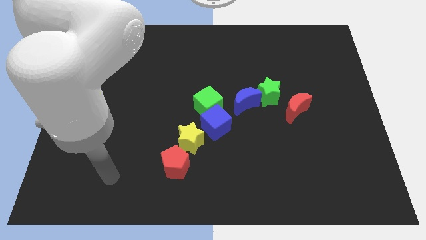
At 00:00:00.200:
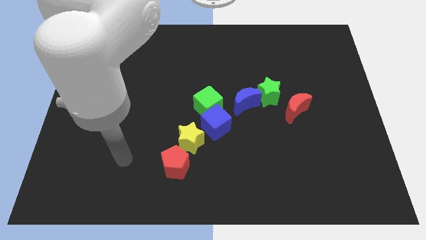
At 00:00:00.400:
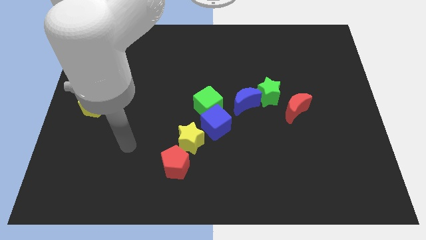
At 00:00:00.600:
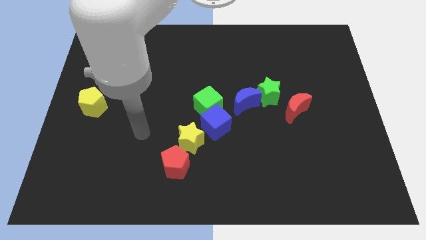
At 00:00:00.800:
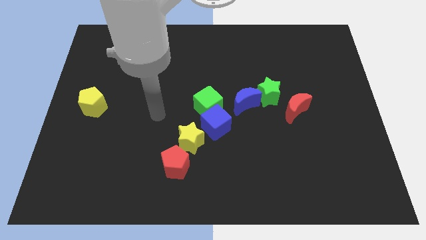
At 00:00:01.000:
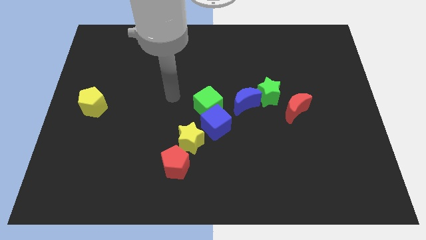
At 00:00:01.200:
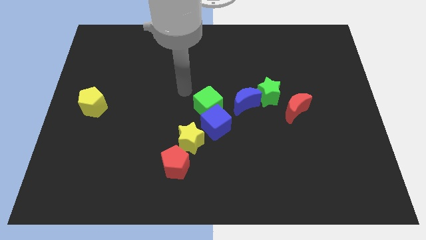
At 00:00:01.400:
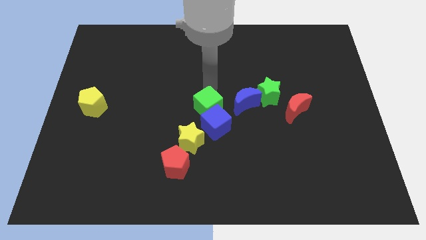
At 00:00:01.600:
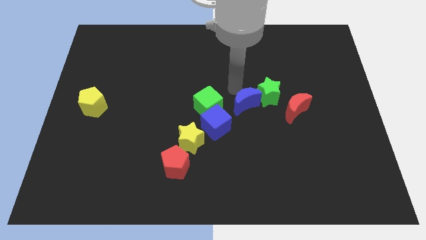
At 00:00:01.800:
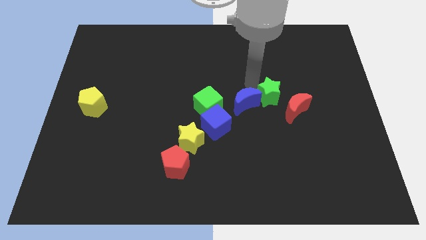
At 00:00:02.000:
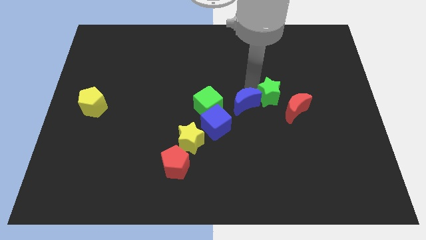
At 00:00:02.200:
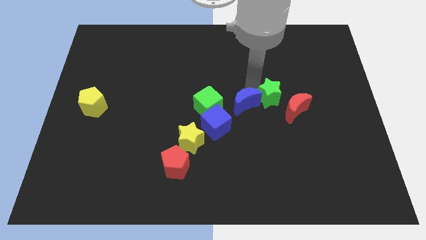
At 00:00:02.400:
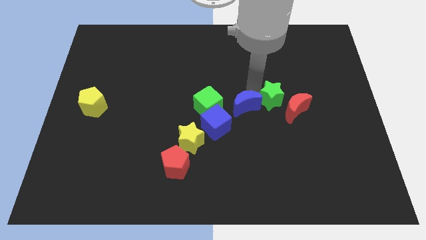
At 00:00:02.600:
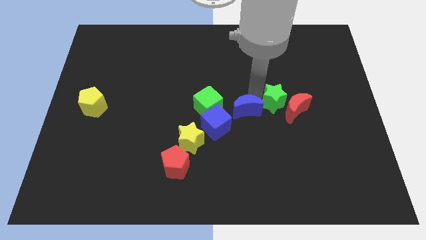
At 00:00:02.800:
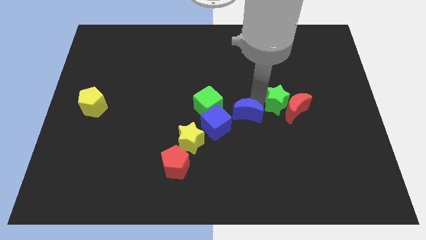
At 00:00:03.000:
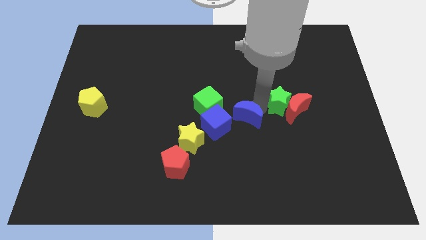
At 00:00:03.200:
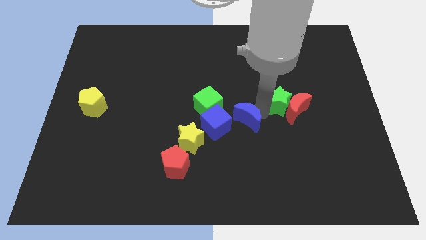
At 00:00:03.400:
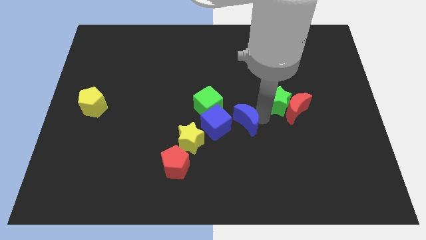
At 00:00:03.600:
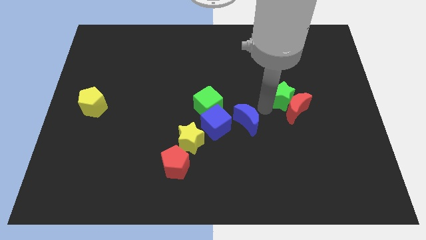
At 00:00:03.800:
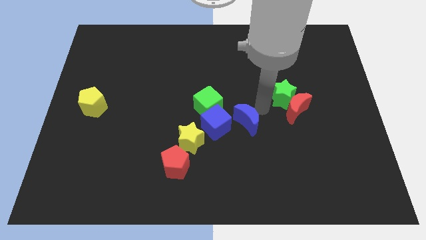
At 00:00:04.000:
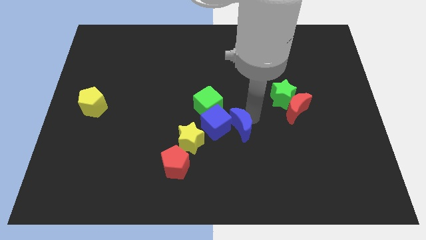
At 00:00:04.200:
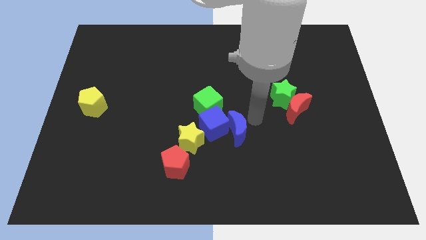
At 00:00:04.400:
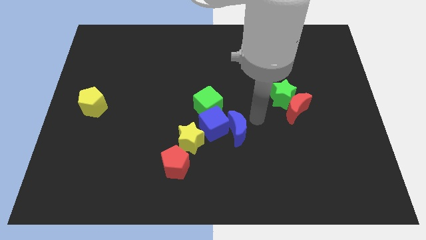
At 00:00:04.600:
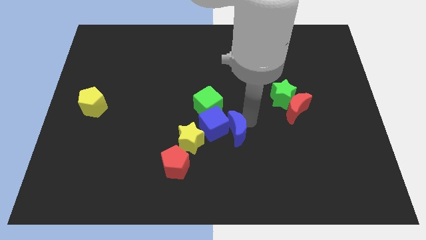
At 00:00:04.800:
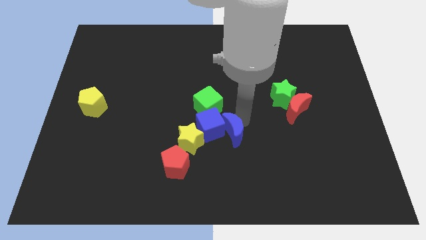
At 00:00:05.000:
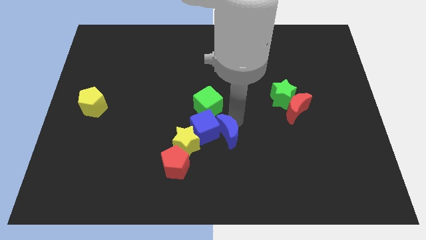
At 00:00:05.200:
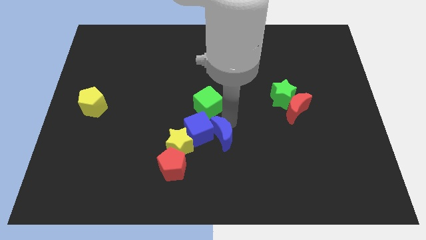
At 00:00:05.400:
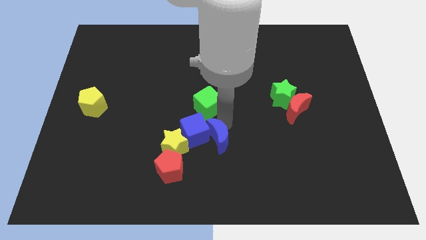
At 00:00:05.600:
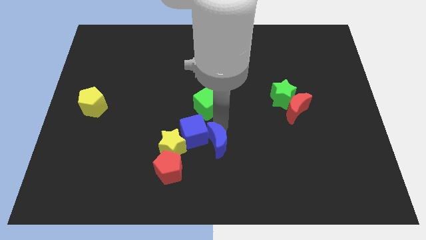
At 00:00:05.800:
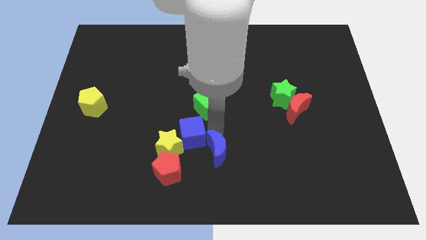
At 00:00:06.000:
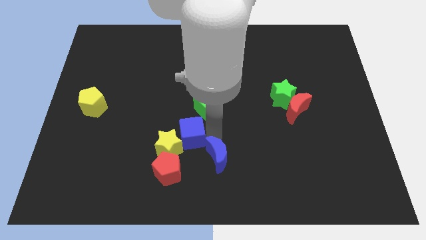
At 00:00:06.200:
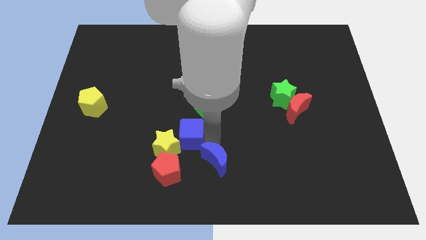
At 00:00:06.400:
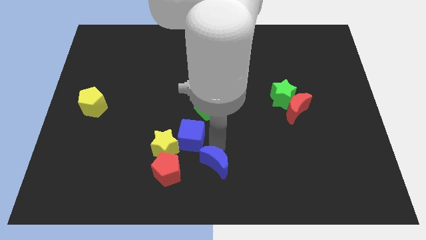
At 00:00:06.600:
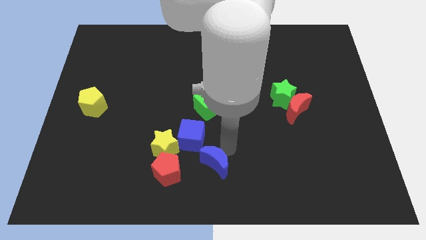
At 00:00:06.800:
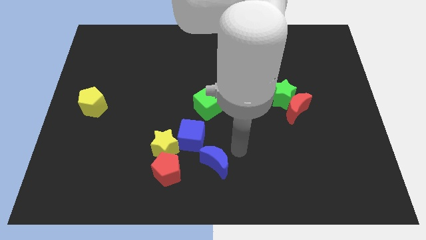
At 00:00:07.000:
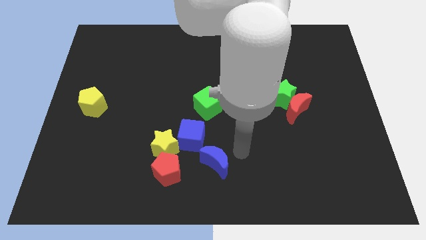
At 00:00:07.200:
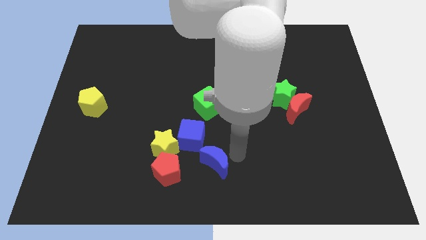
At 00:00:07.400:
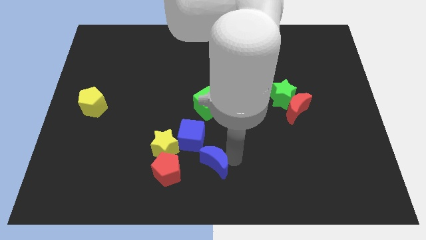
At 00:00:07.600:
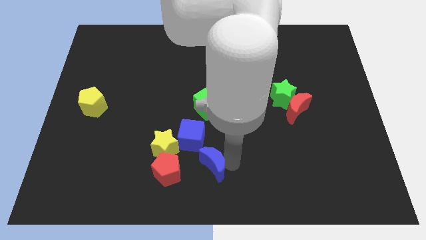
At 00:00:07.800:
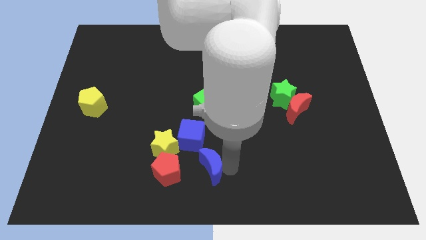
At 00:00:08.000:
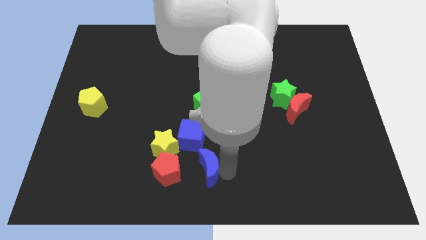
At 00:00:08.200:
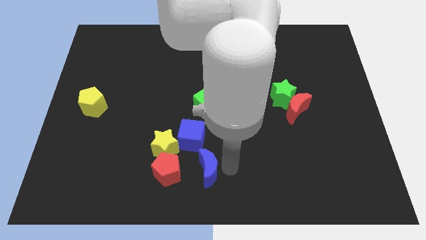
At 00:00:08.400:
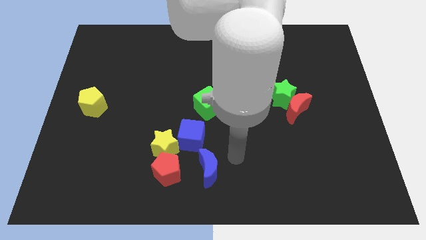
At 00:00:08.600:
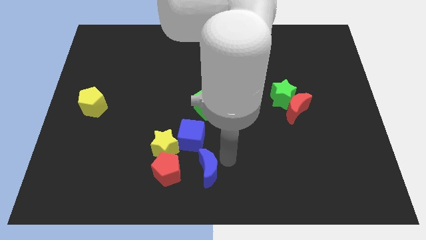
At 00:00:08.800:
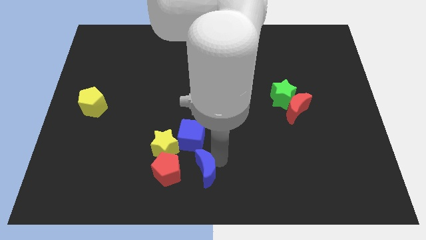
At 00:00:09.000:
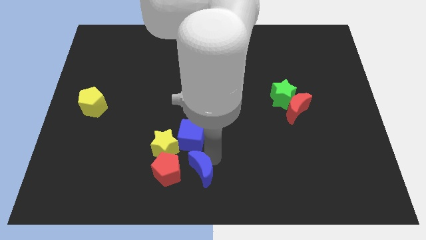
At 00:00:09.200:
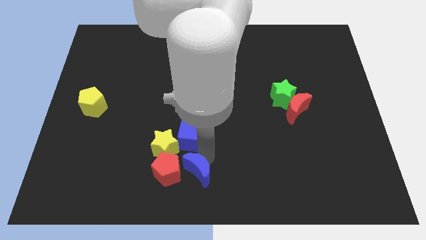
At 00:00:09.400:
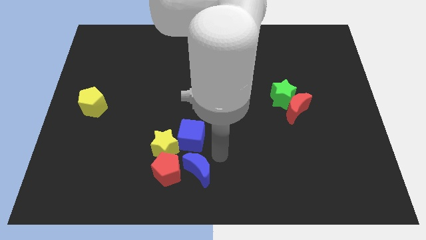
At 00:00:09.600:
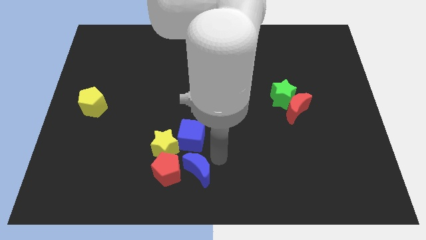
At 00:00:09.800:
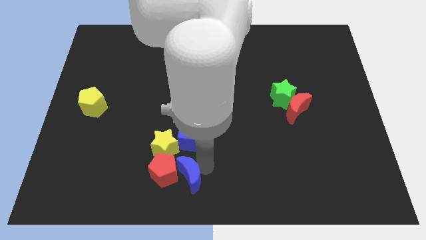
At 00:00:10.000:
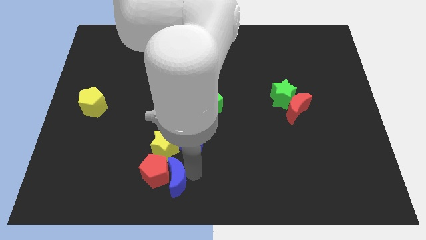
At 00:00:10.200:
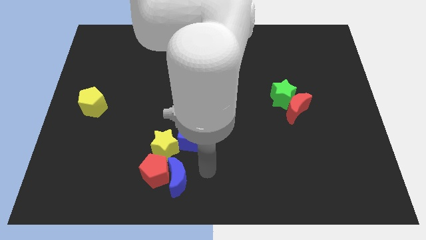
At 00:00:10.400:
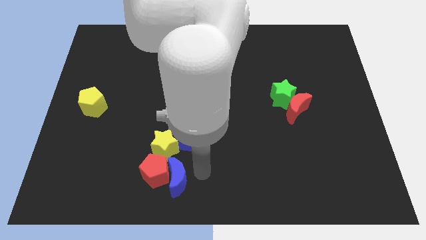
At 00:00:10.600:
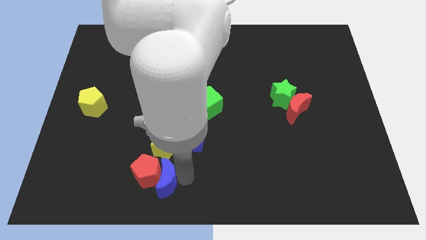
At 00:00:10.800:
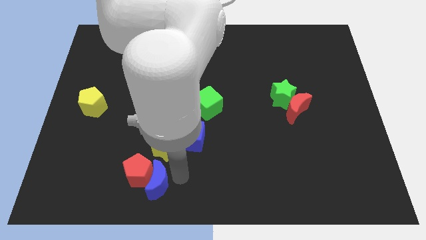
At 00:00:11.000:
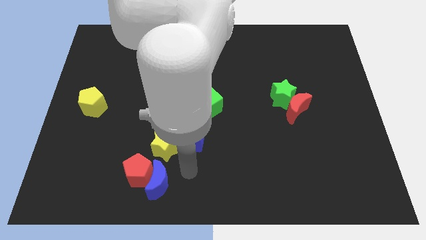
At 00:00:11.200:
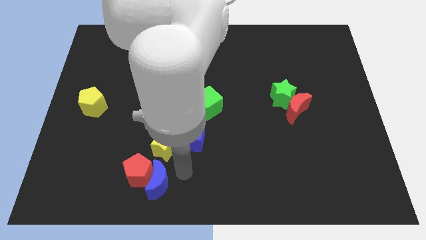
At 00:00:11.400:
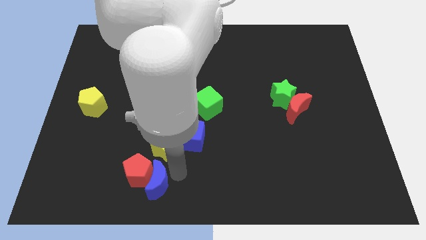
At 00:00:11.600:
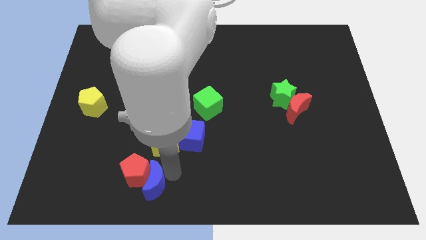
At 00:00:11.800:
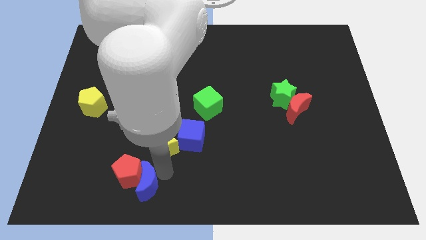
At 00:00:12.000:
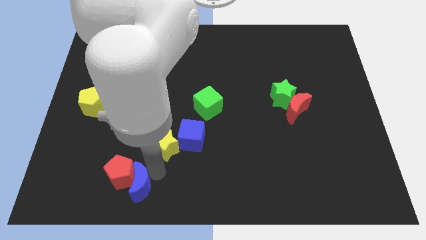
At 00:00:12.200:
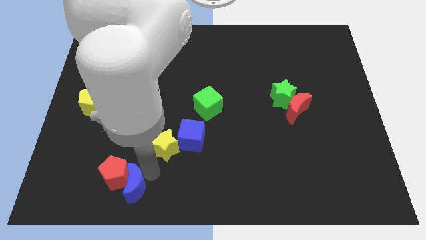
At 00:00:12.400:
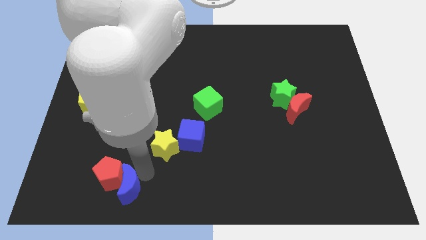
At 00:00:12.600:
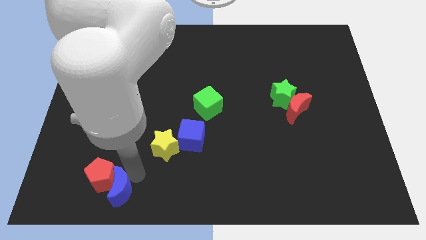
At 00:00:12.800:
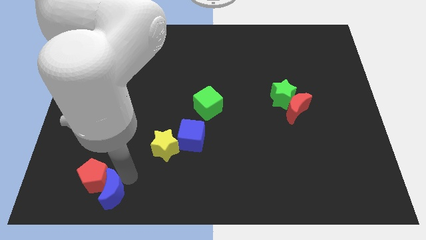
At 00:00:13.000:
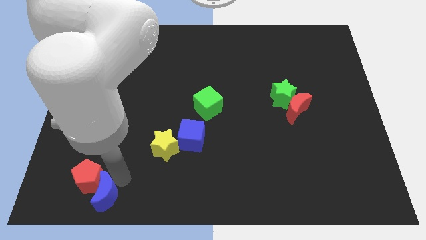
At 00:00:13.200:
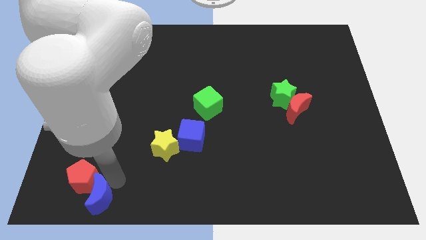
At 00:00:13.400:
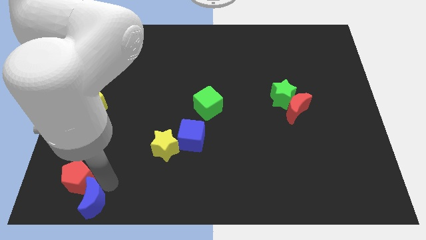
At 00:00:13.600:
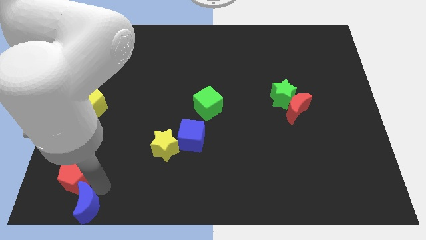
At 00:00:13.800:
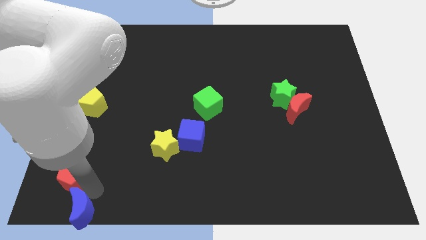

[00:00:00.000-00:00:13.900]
move the blue moon to the bottom left corner

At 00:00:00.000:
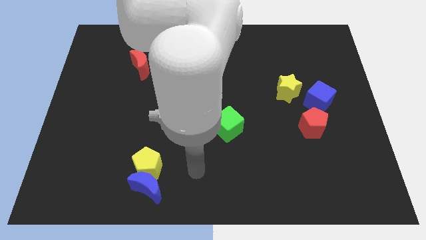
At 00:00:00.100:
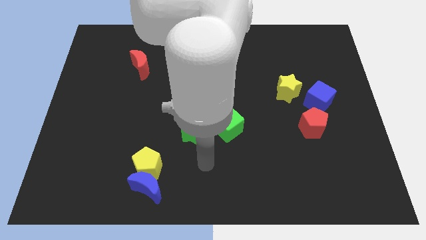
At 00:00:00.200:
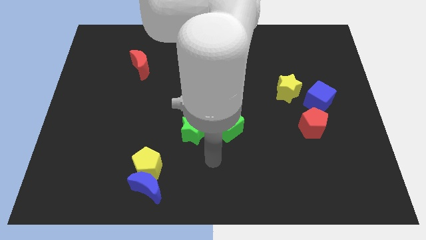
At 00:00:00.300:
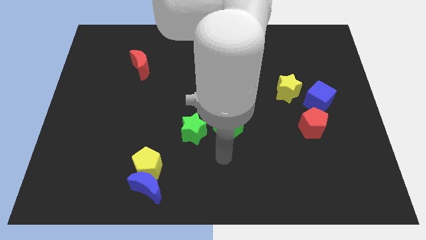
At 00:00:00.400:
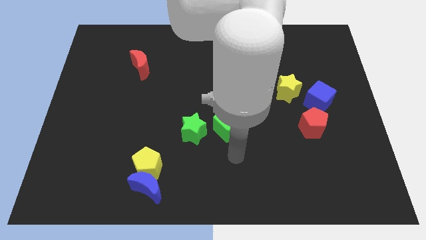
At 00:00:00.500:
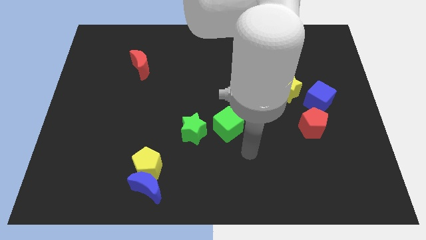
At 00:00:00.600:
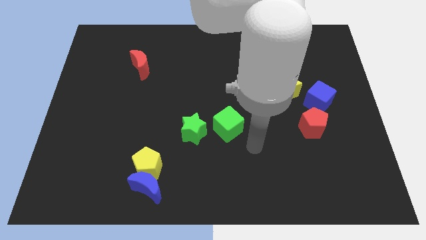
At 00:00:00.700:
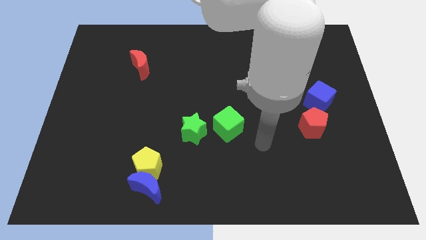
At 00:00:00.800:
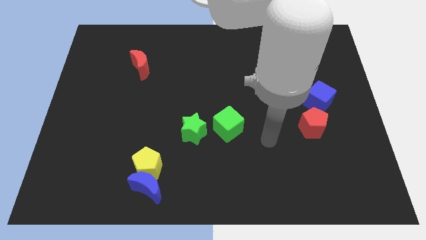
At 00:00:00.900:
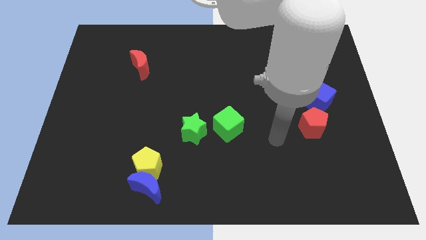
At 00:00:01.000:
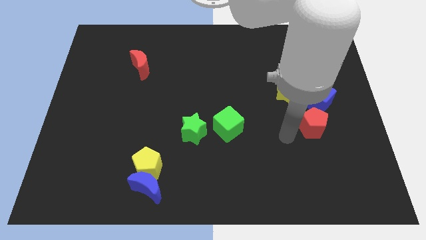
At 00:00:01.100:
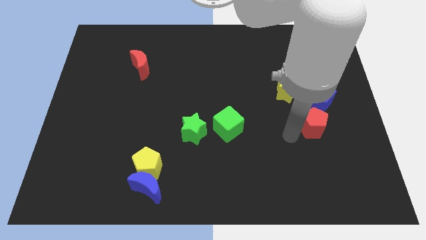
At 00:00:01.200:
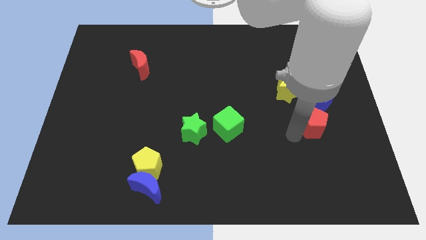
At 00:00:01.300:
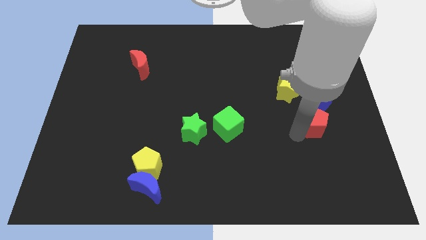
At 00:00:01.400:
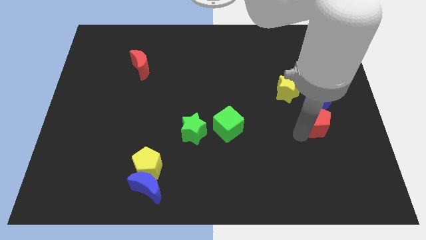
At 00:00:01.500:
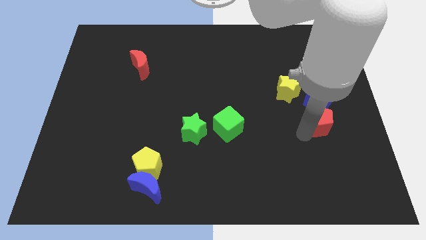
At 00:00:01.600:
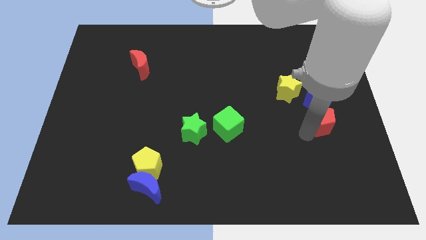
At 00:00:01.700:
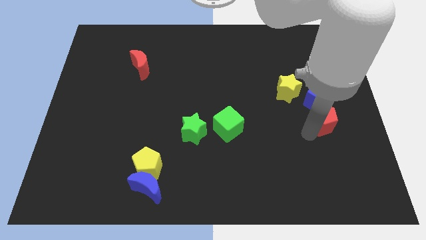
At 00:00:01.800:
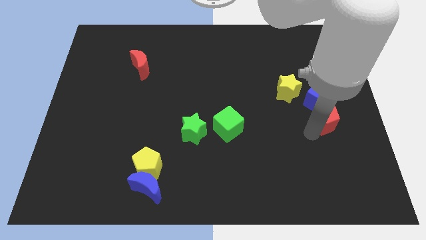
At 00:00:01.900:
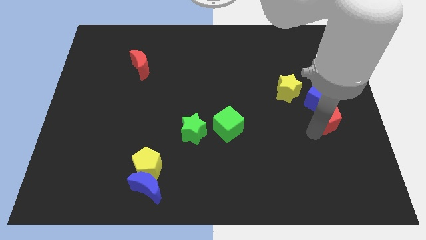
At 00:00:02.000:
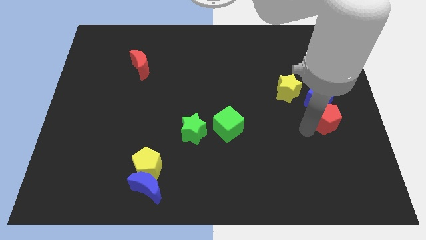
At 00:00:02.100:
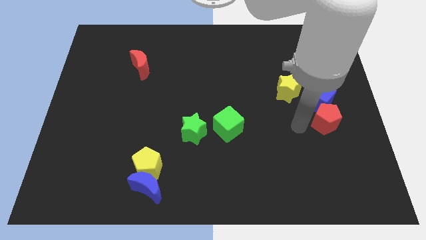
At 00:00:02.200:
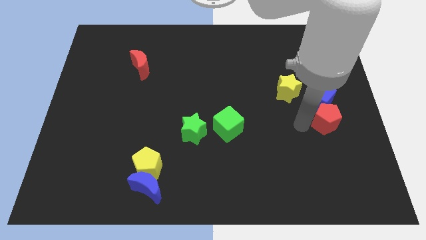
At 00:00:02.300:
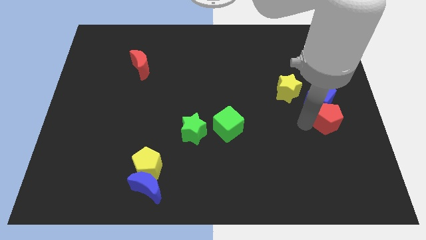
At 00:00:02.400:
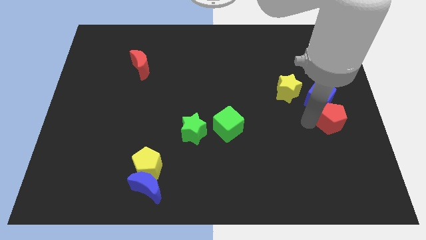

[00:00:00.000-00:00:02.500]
push the red pentagon to the right side
